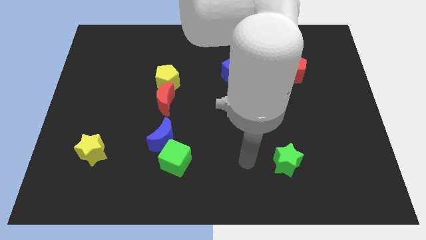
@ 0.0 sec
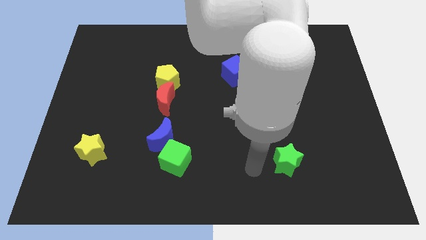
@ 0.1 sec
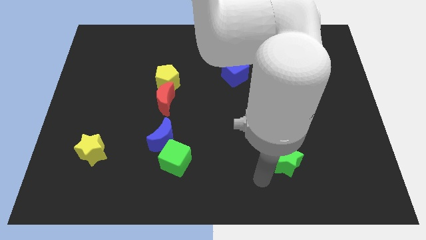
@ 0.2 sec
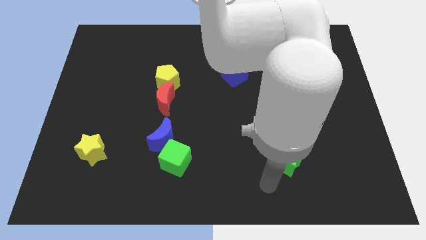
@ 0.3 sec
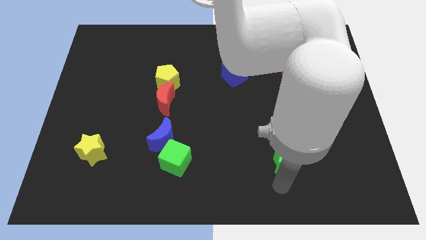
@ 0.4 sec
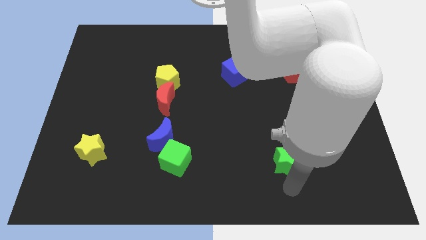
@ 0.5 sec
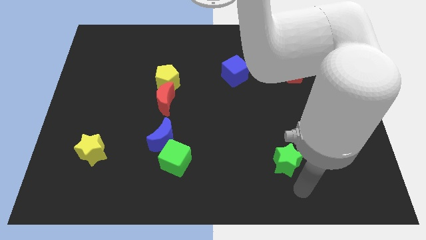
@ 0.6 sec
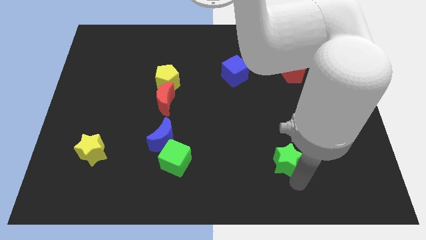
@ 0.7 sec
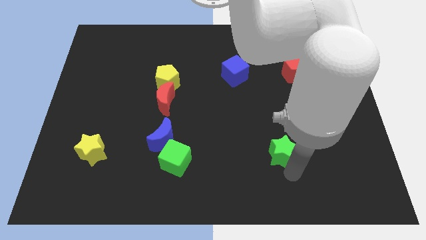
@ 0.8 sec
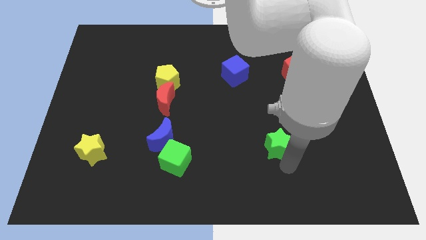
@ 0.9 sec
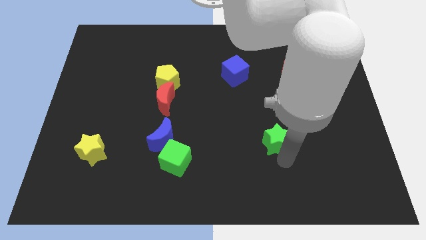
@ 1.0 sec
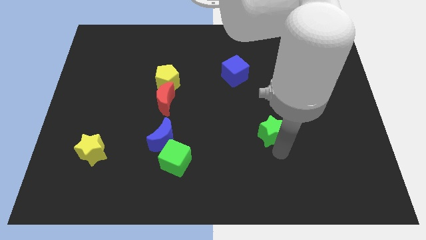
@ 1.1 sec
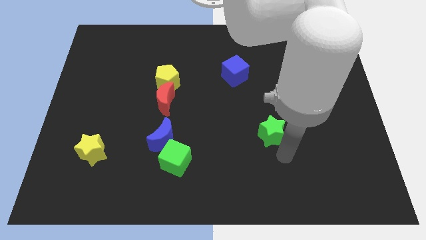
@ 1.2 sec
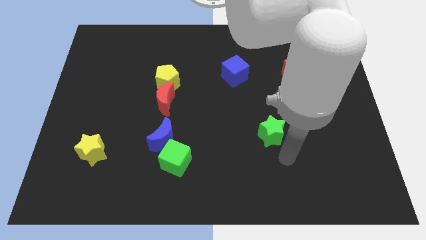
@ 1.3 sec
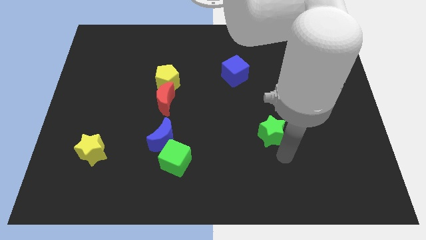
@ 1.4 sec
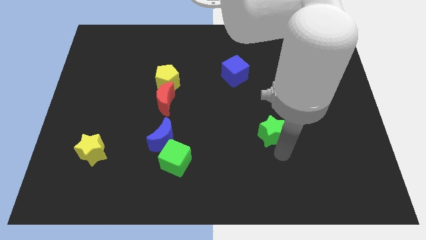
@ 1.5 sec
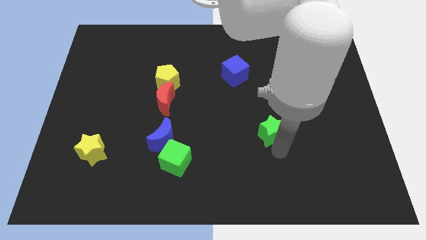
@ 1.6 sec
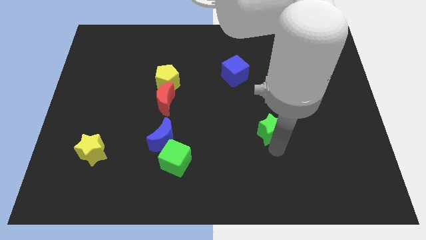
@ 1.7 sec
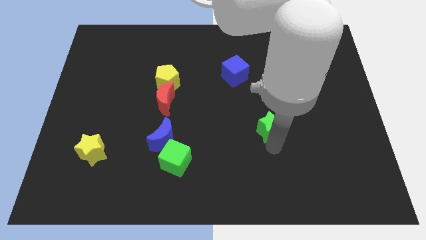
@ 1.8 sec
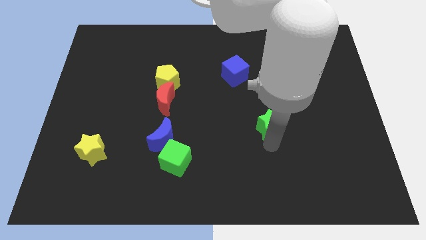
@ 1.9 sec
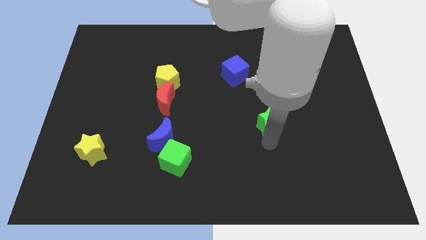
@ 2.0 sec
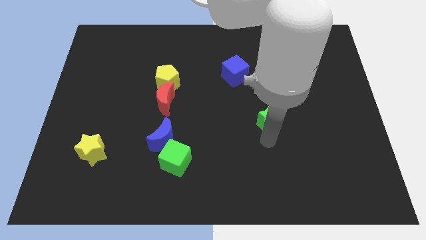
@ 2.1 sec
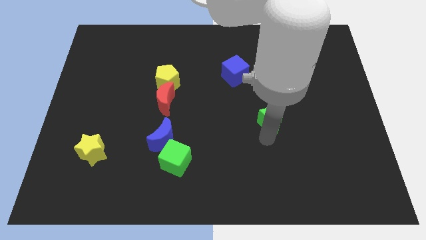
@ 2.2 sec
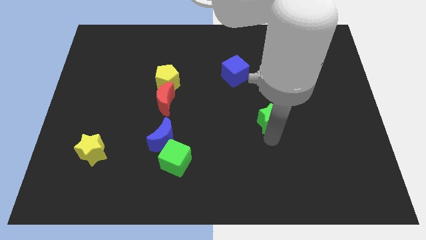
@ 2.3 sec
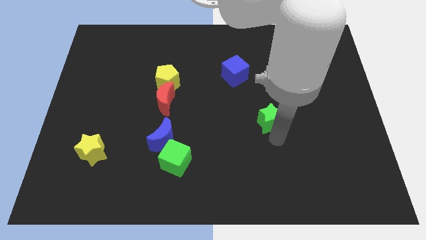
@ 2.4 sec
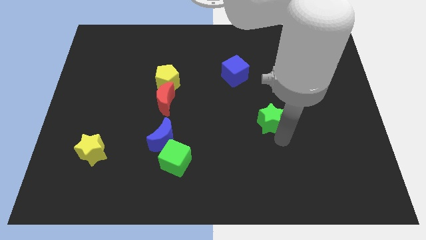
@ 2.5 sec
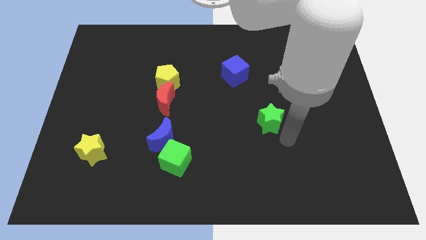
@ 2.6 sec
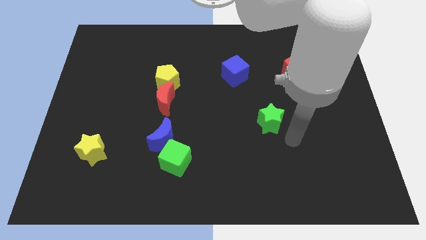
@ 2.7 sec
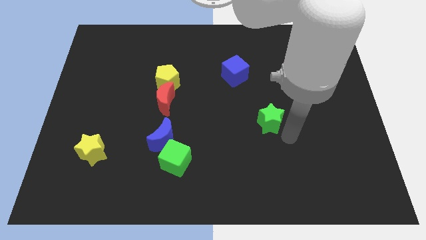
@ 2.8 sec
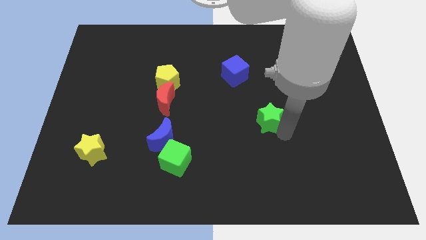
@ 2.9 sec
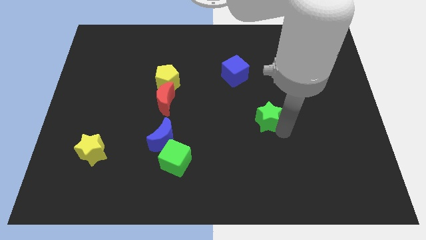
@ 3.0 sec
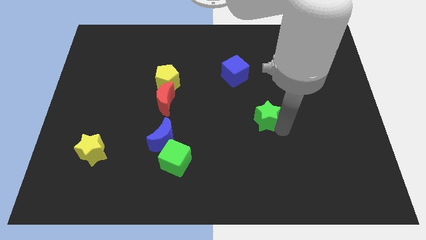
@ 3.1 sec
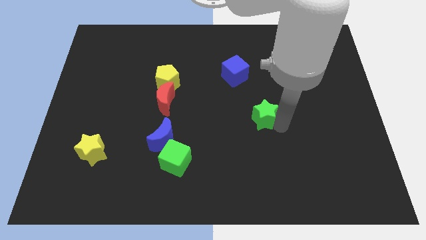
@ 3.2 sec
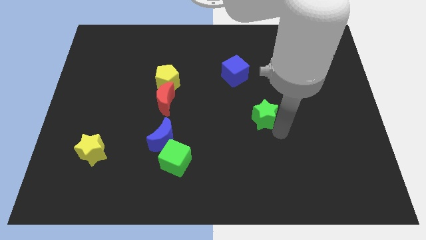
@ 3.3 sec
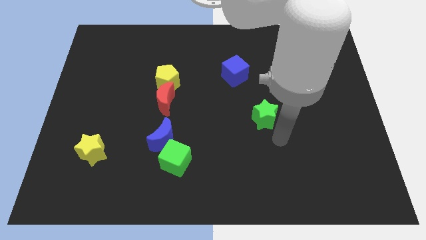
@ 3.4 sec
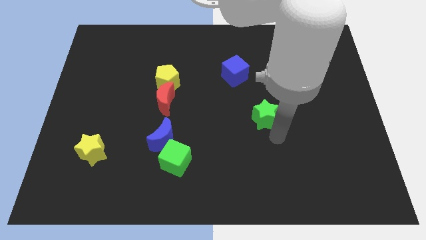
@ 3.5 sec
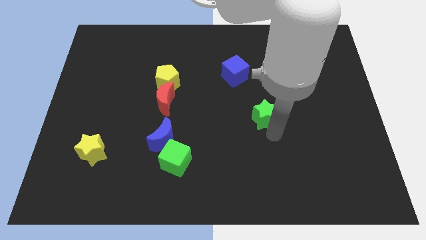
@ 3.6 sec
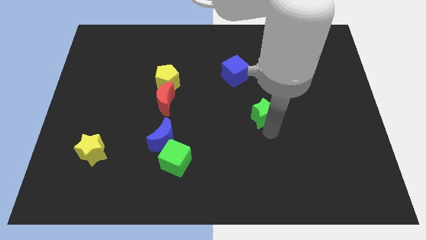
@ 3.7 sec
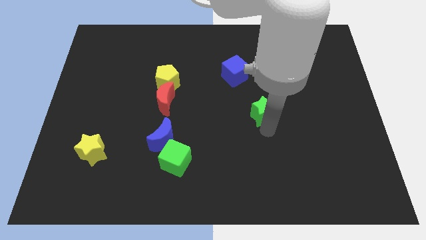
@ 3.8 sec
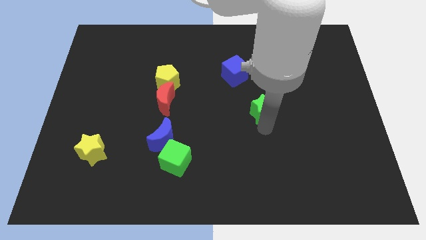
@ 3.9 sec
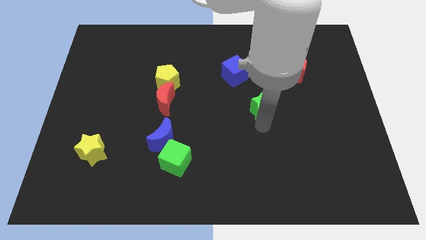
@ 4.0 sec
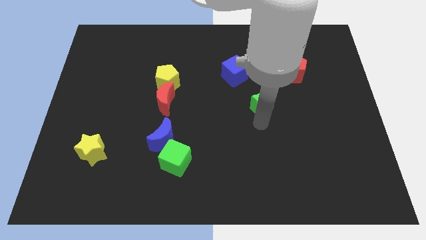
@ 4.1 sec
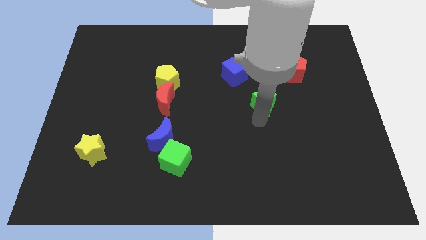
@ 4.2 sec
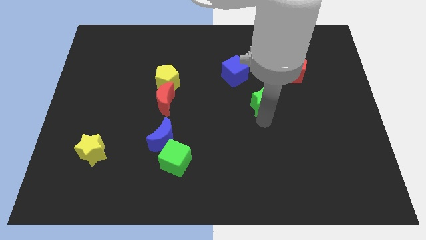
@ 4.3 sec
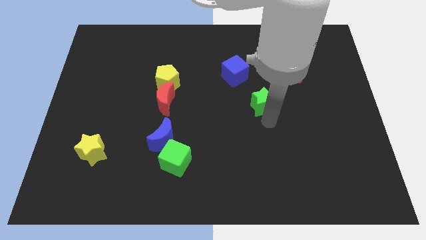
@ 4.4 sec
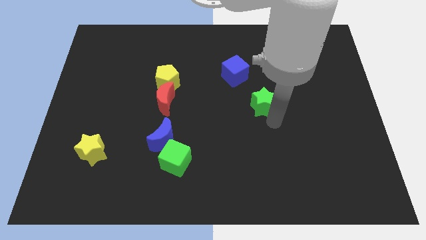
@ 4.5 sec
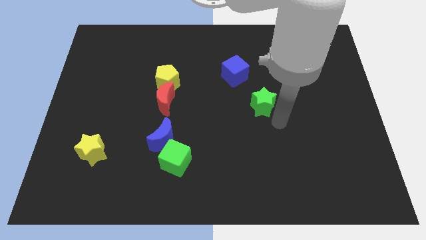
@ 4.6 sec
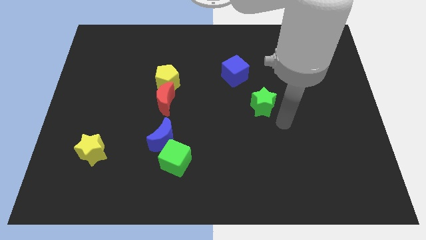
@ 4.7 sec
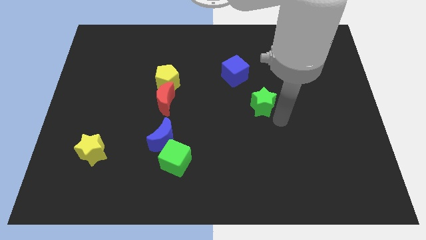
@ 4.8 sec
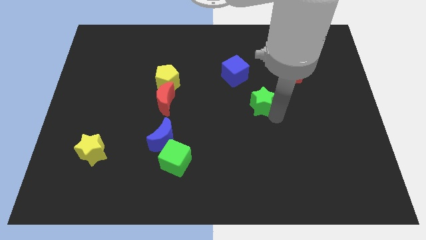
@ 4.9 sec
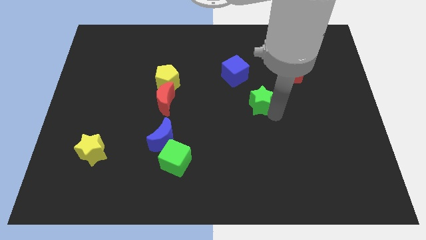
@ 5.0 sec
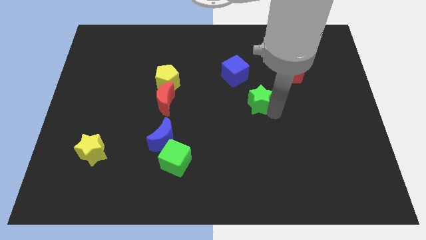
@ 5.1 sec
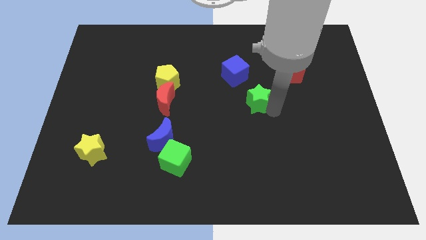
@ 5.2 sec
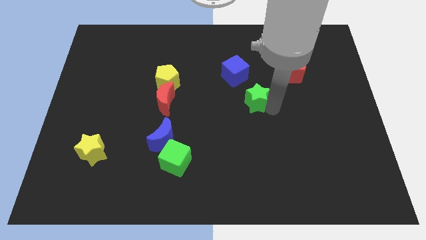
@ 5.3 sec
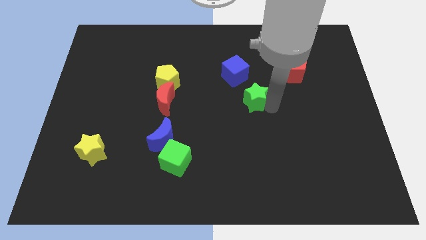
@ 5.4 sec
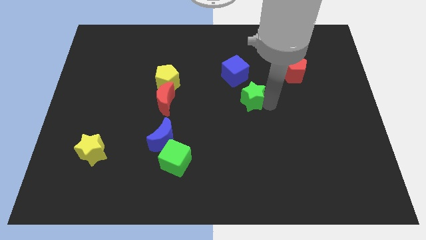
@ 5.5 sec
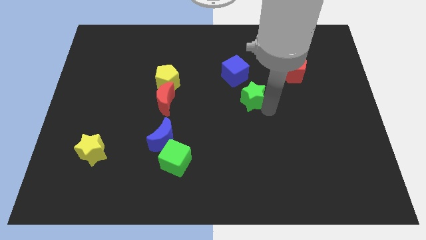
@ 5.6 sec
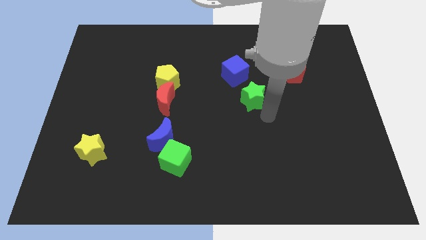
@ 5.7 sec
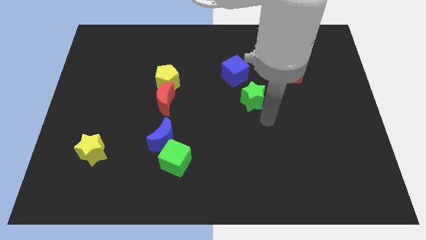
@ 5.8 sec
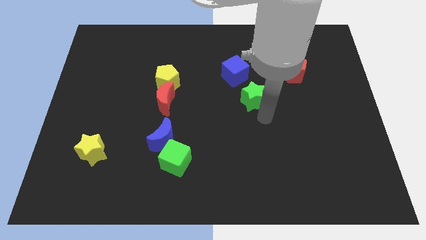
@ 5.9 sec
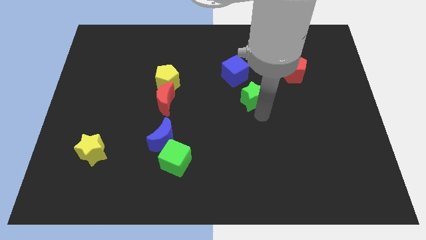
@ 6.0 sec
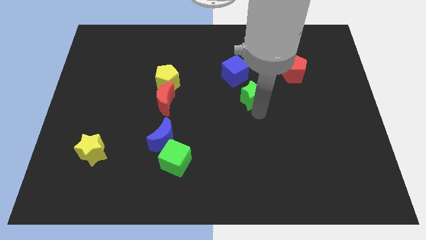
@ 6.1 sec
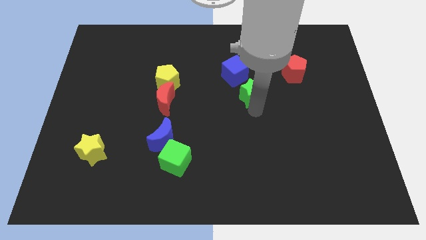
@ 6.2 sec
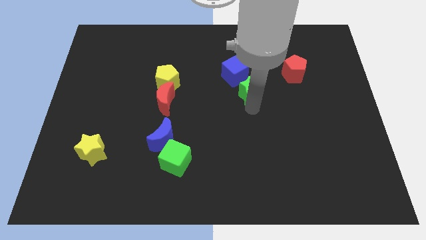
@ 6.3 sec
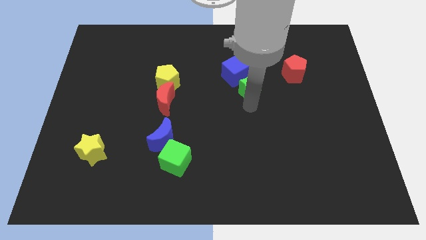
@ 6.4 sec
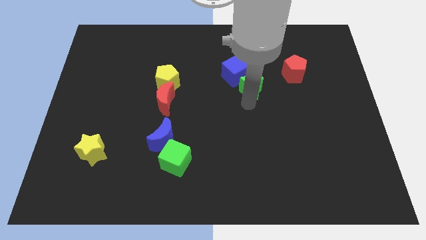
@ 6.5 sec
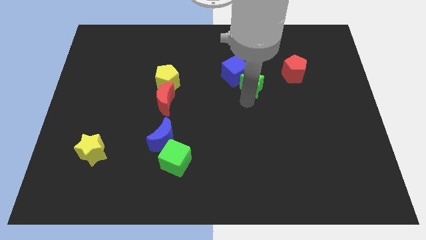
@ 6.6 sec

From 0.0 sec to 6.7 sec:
push the green star next to the blue cube

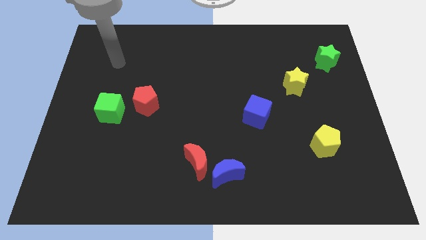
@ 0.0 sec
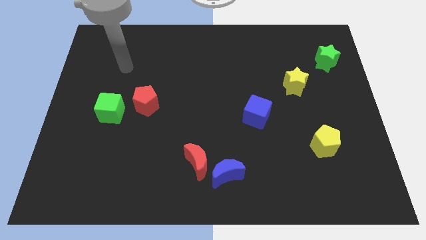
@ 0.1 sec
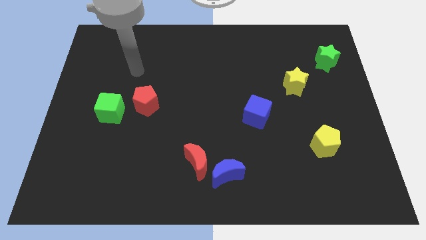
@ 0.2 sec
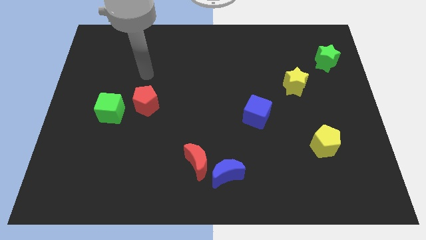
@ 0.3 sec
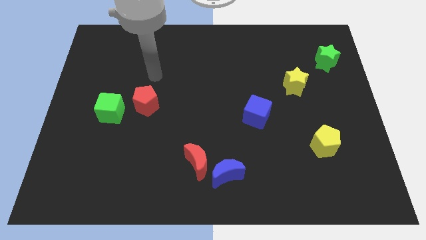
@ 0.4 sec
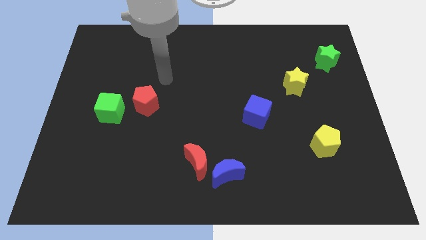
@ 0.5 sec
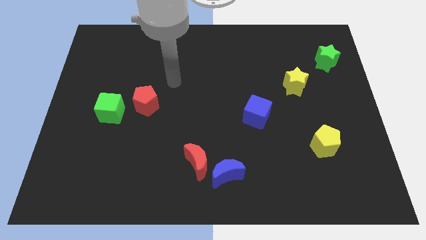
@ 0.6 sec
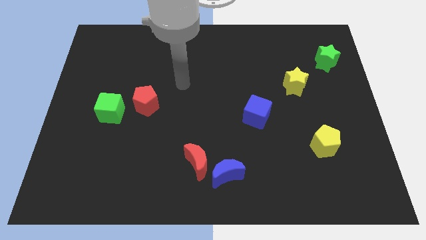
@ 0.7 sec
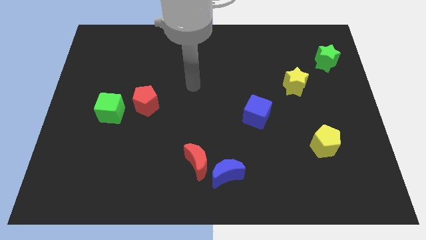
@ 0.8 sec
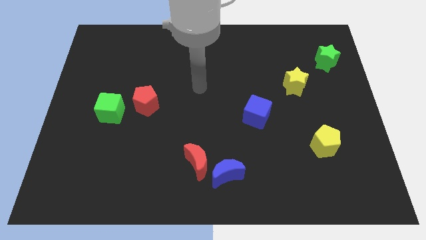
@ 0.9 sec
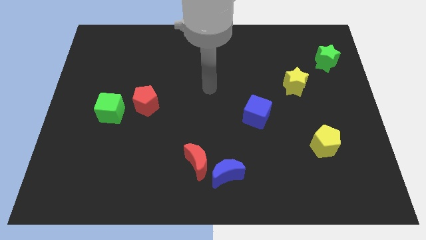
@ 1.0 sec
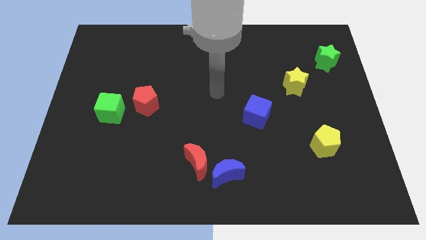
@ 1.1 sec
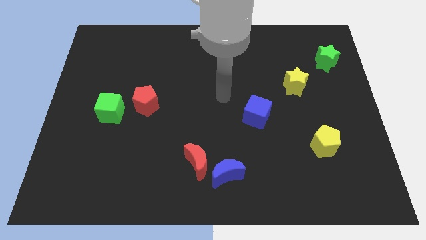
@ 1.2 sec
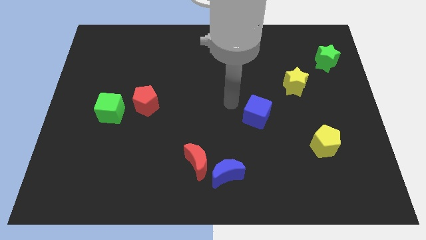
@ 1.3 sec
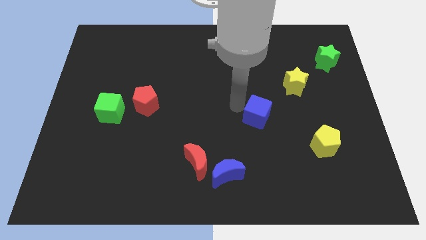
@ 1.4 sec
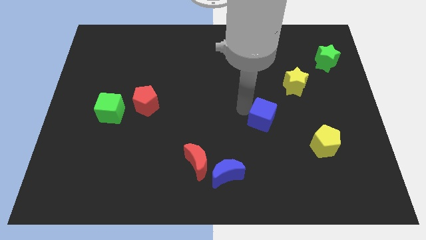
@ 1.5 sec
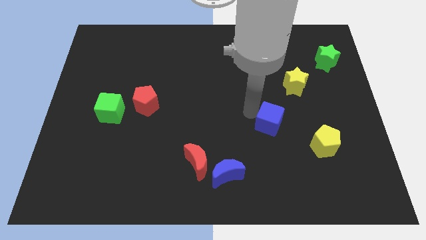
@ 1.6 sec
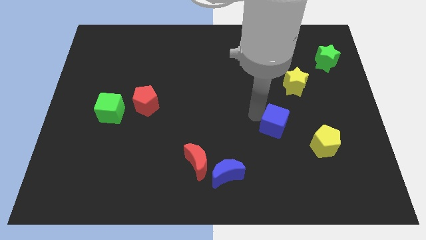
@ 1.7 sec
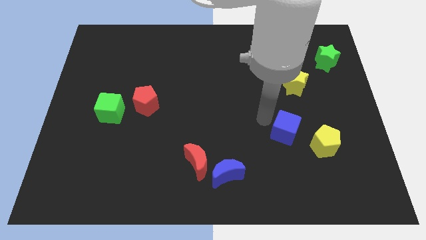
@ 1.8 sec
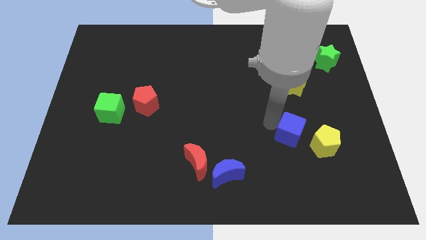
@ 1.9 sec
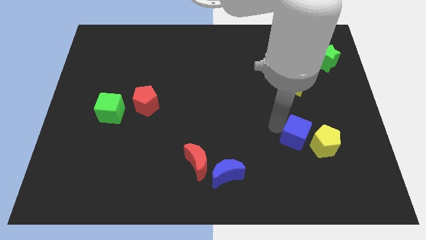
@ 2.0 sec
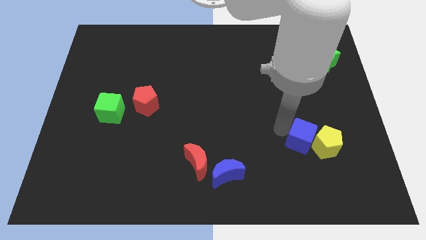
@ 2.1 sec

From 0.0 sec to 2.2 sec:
slide the blue cube next to the yellow pentagon
